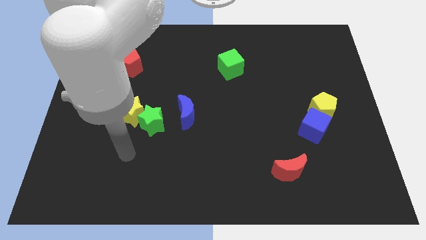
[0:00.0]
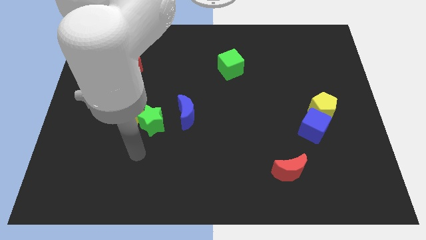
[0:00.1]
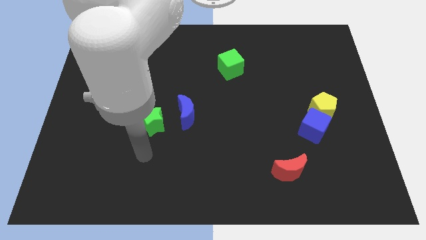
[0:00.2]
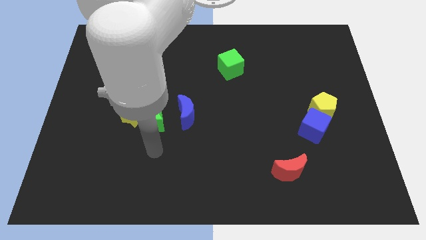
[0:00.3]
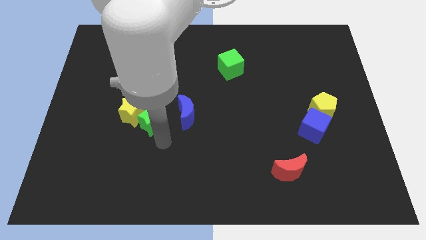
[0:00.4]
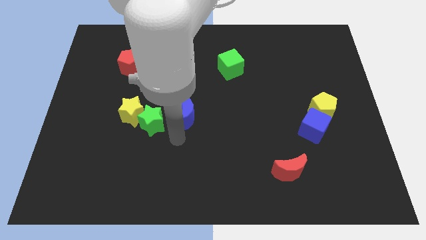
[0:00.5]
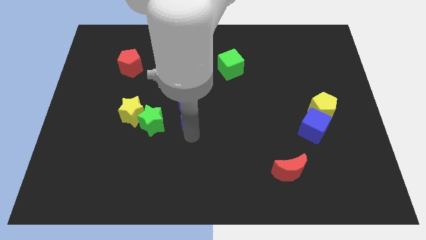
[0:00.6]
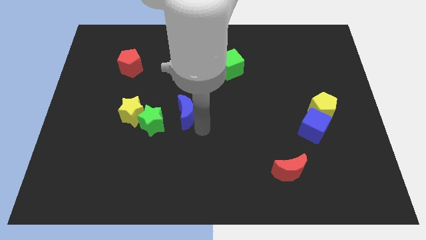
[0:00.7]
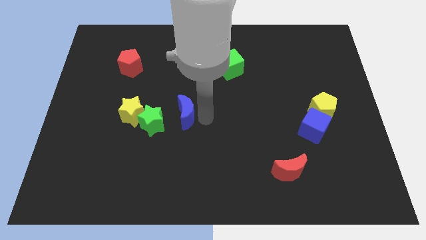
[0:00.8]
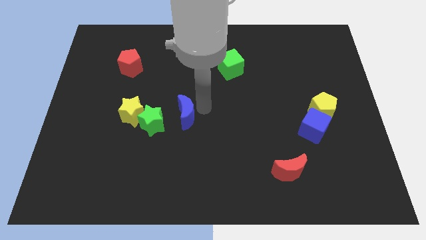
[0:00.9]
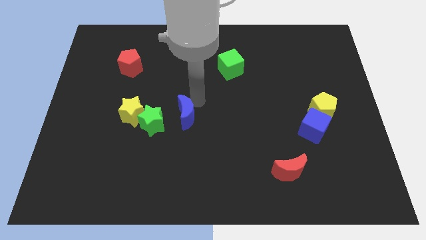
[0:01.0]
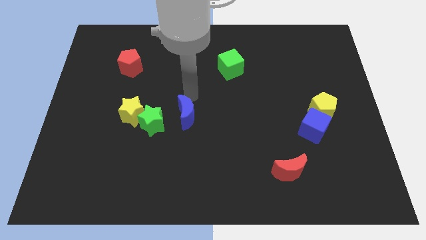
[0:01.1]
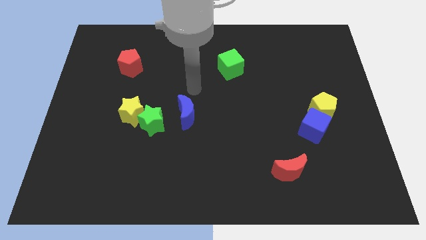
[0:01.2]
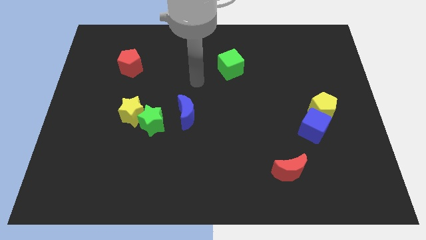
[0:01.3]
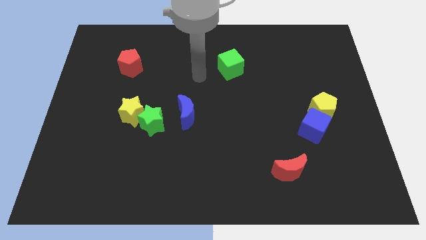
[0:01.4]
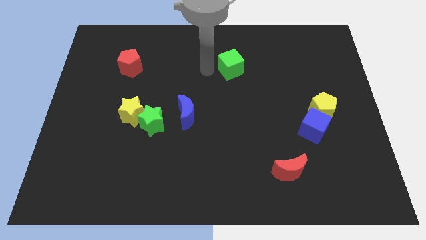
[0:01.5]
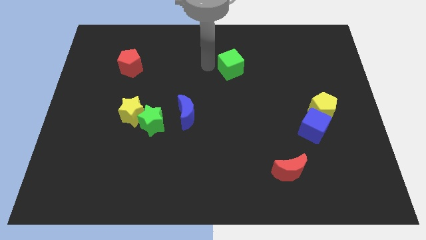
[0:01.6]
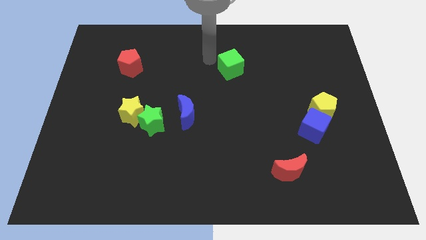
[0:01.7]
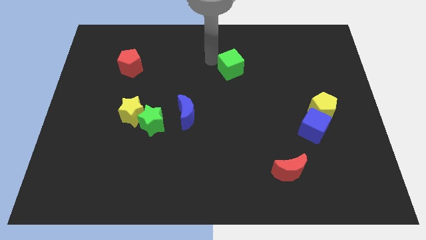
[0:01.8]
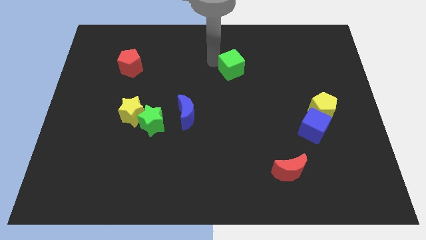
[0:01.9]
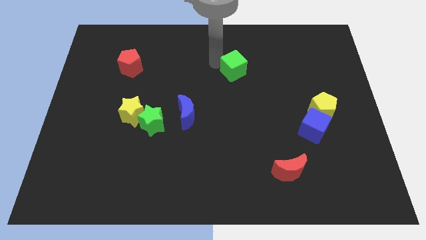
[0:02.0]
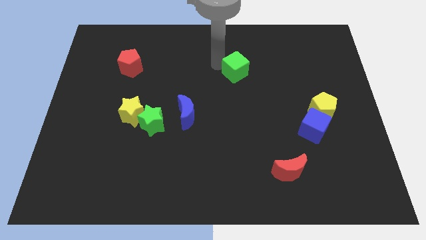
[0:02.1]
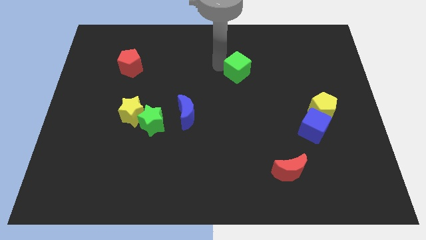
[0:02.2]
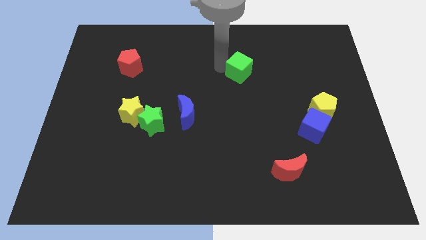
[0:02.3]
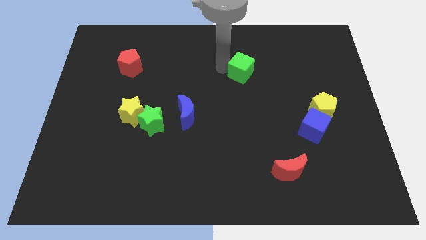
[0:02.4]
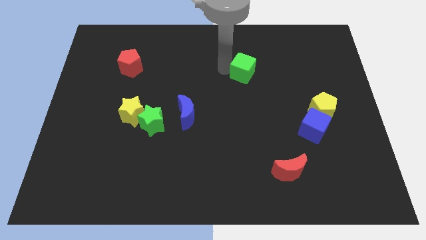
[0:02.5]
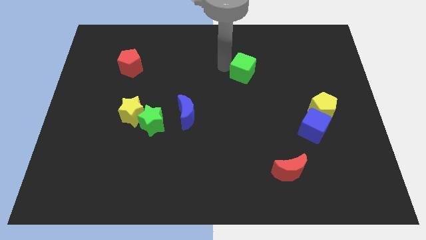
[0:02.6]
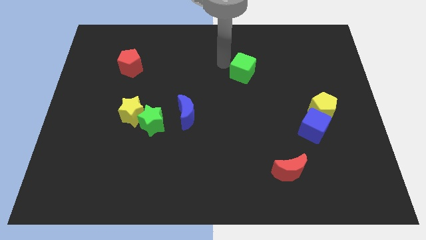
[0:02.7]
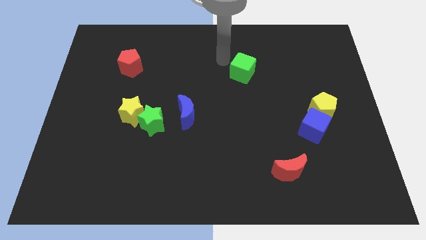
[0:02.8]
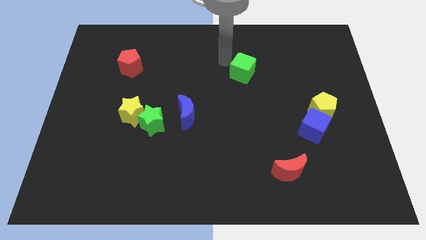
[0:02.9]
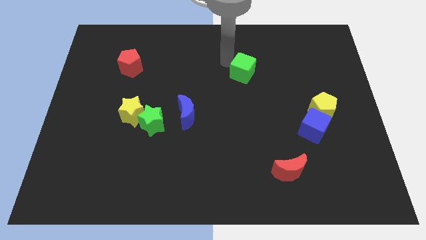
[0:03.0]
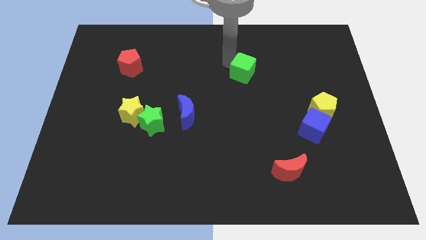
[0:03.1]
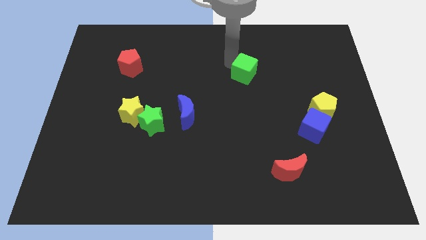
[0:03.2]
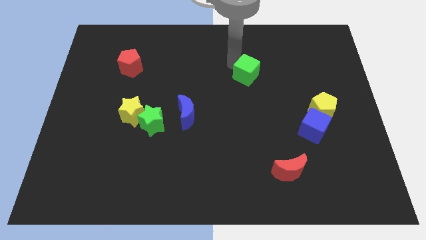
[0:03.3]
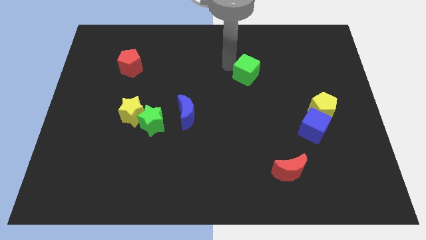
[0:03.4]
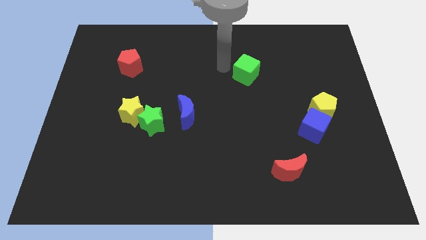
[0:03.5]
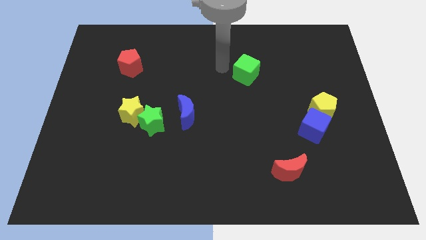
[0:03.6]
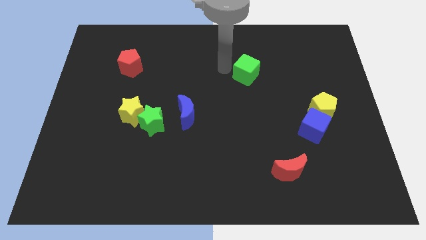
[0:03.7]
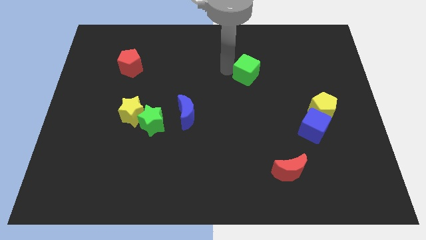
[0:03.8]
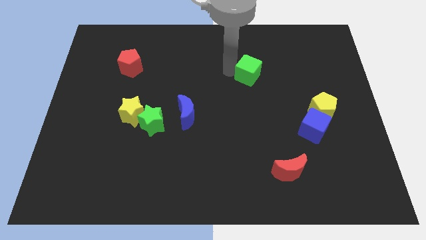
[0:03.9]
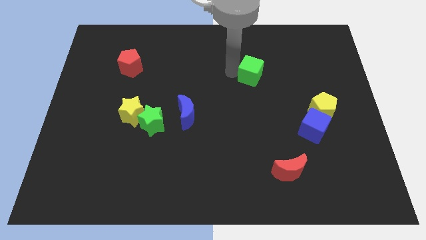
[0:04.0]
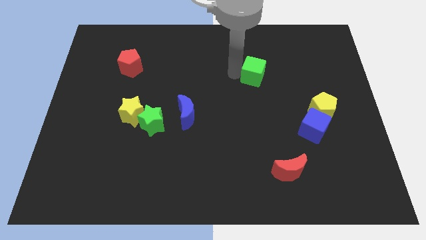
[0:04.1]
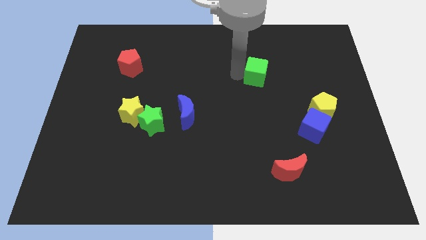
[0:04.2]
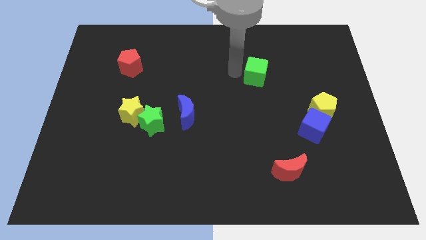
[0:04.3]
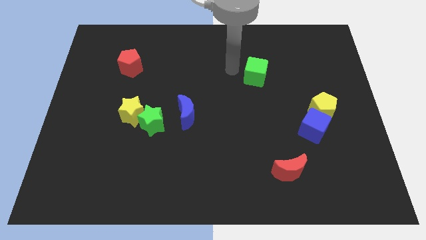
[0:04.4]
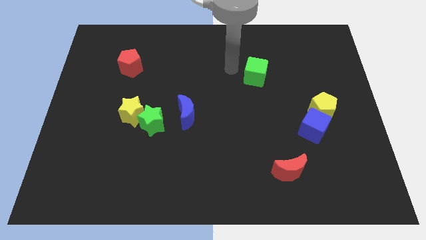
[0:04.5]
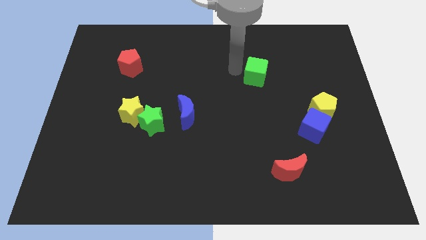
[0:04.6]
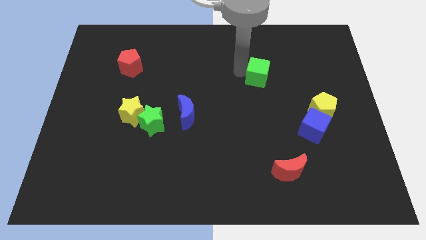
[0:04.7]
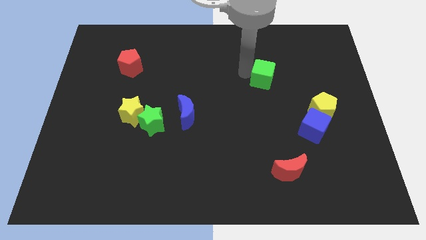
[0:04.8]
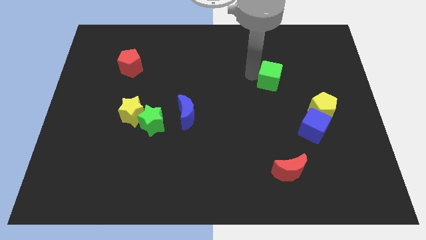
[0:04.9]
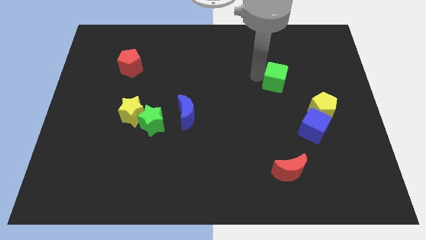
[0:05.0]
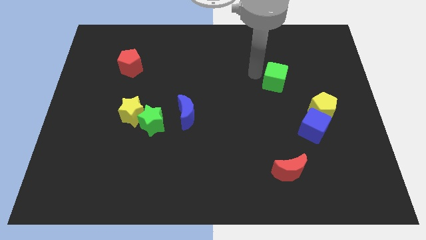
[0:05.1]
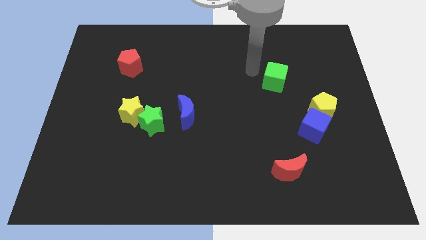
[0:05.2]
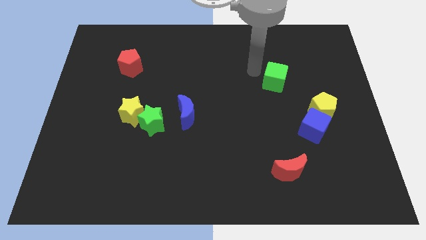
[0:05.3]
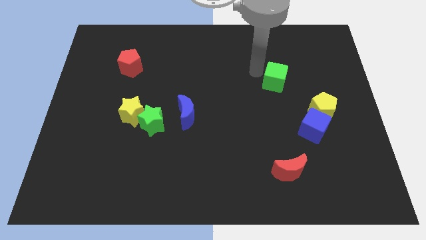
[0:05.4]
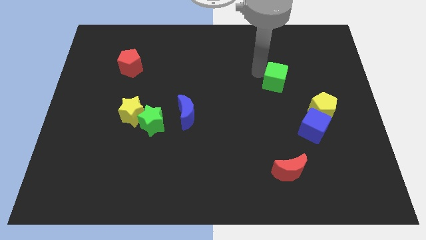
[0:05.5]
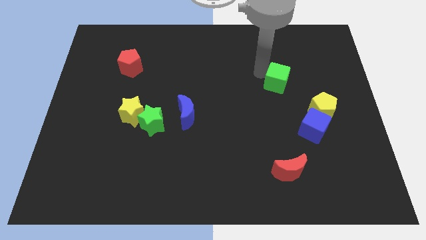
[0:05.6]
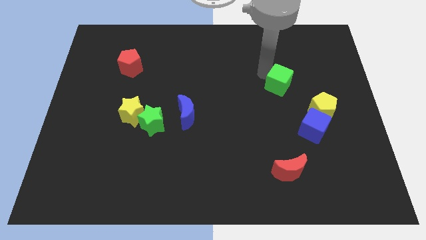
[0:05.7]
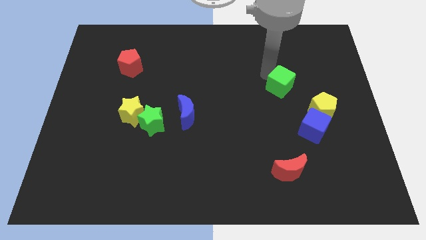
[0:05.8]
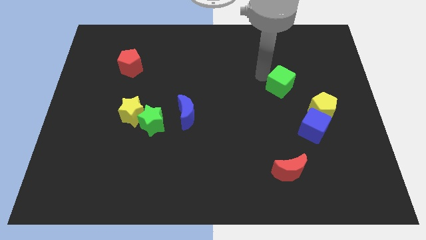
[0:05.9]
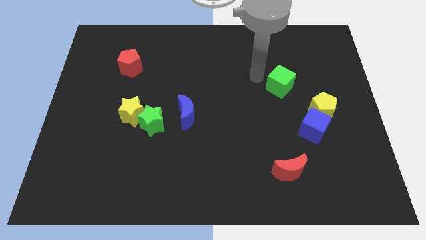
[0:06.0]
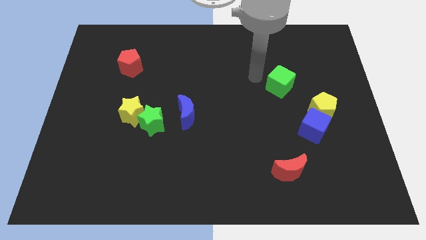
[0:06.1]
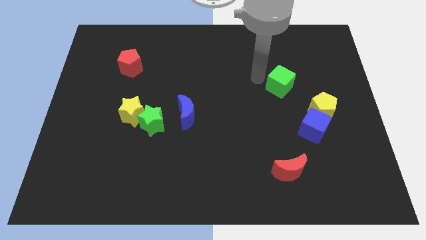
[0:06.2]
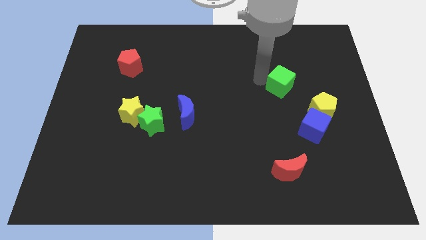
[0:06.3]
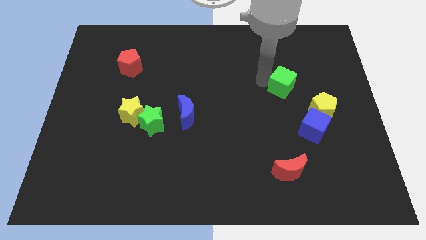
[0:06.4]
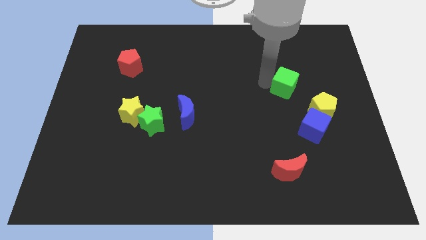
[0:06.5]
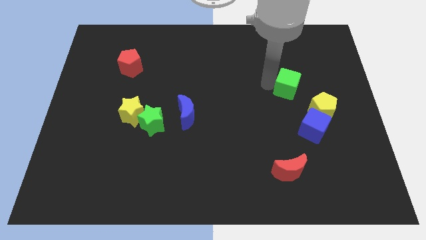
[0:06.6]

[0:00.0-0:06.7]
slide the green cube to the top of the blue cube
